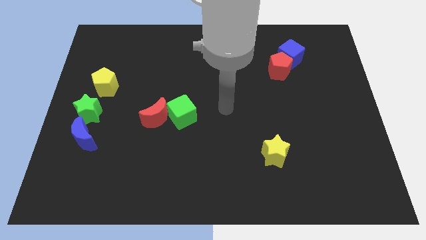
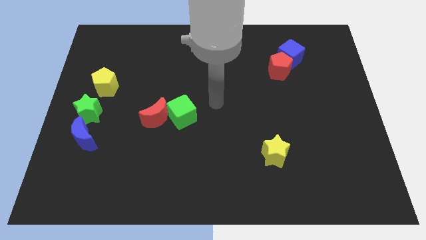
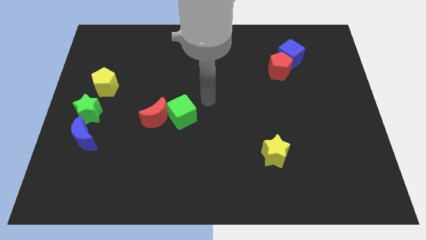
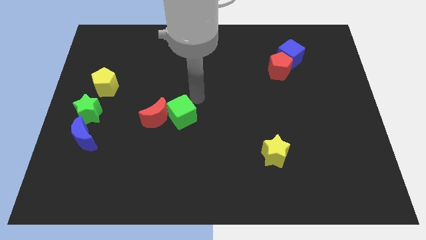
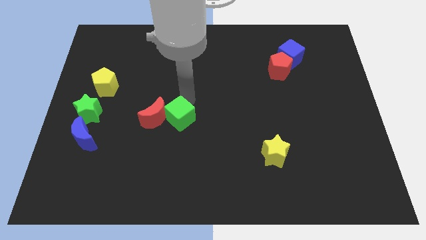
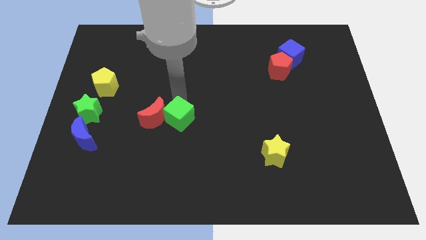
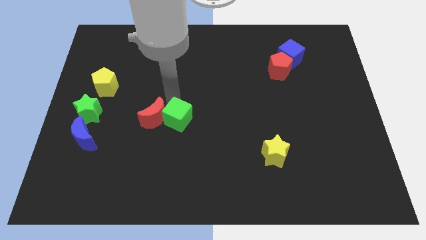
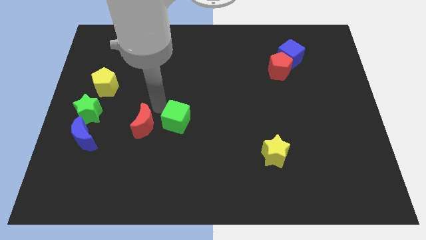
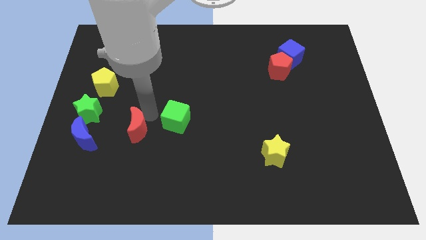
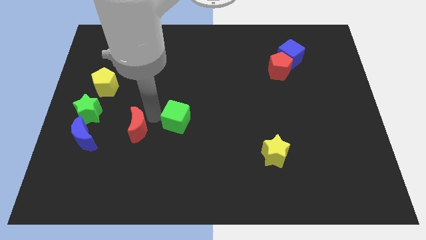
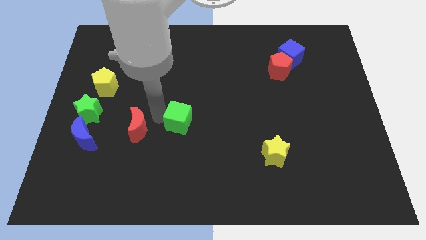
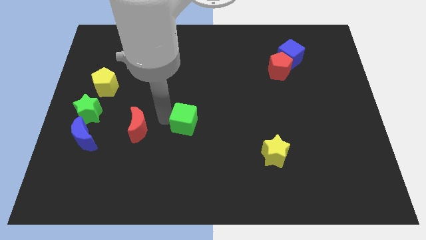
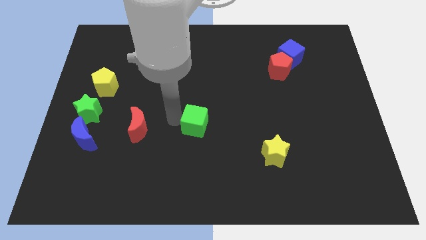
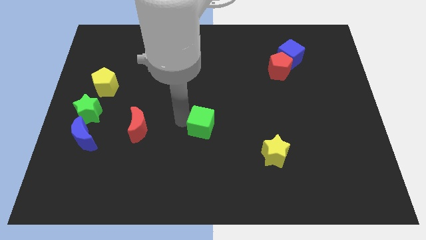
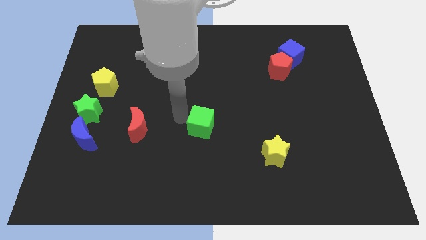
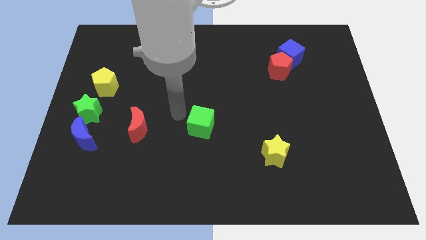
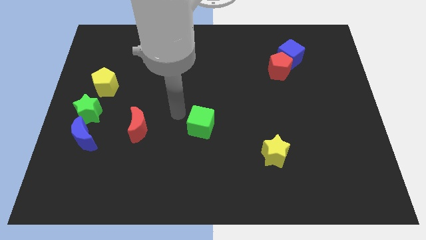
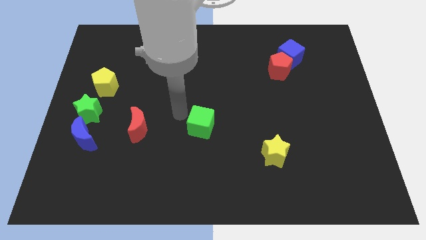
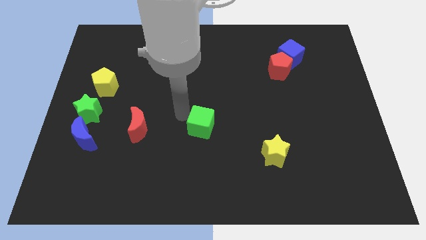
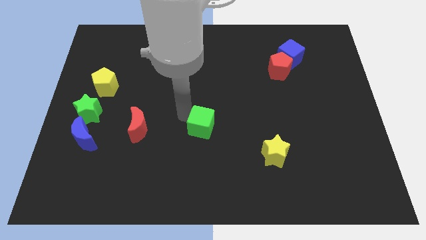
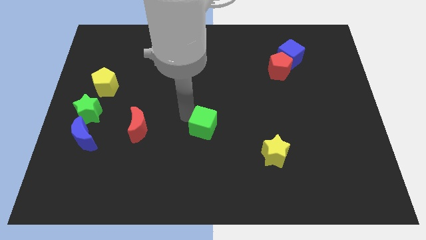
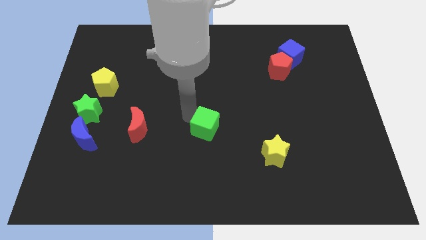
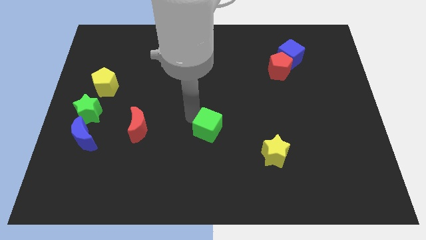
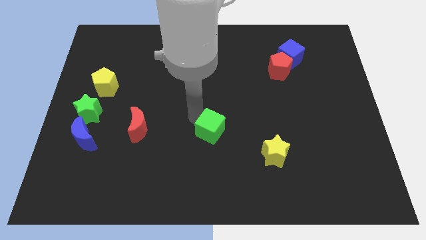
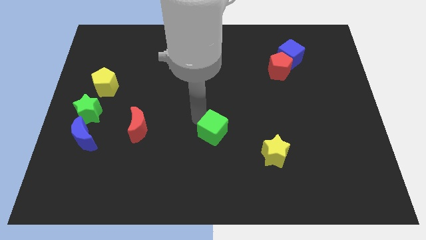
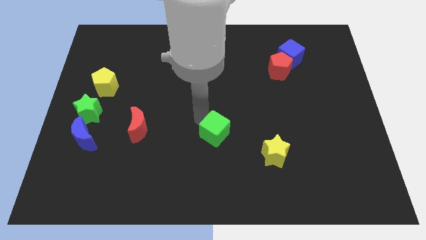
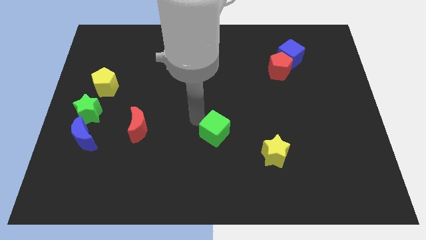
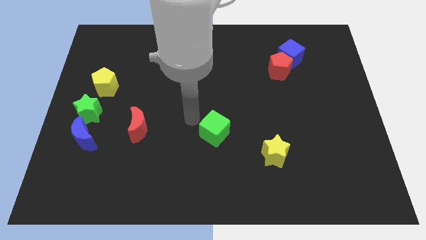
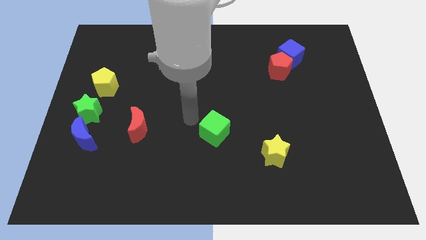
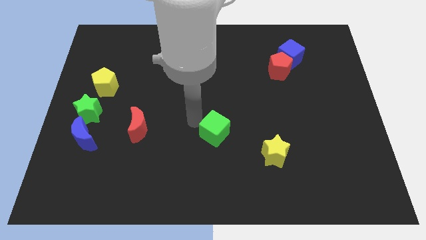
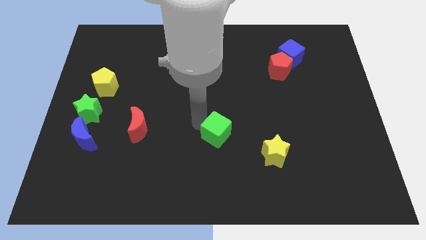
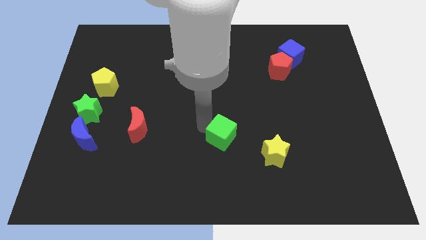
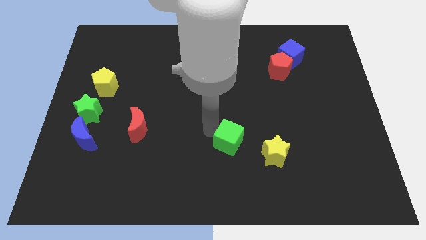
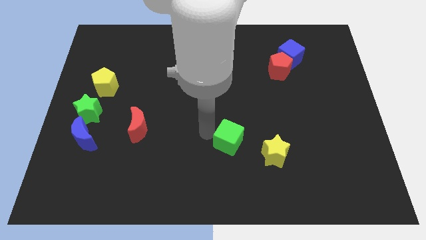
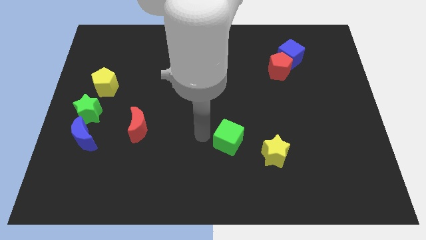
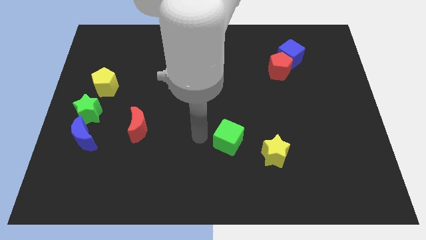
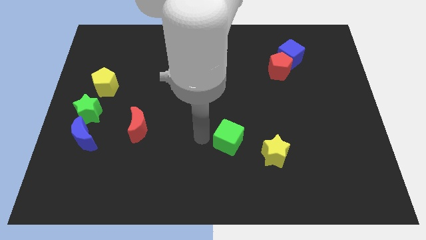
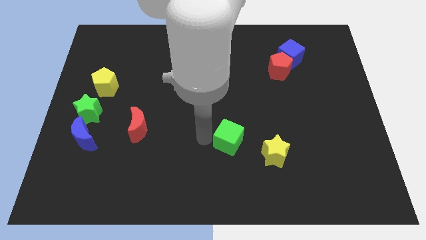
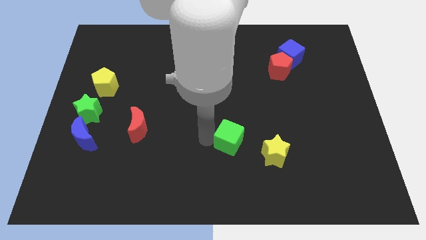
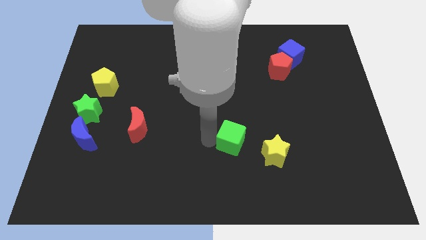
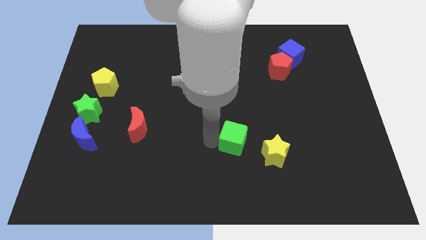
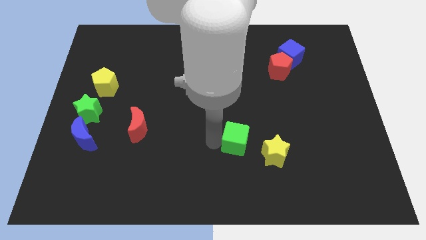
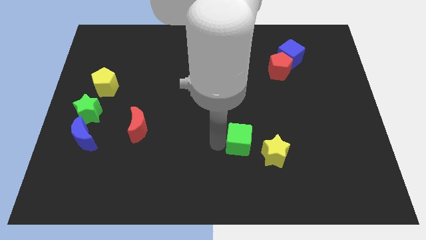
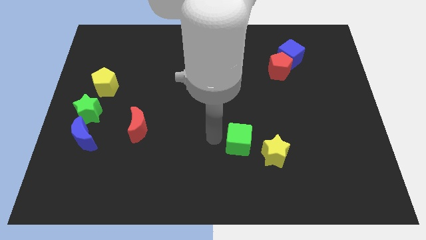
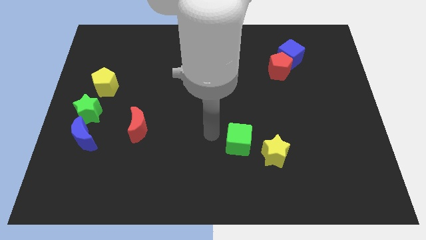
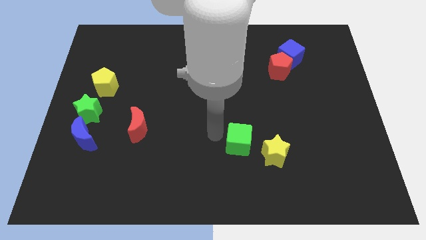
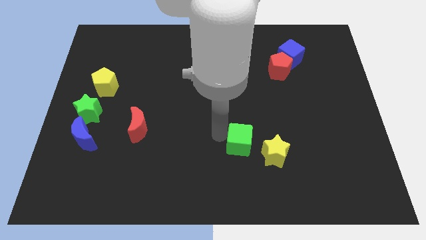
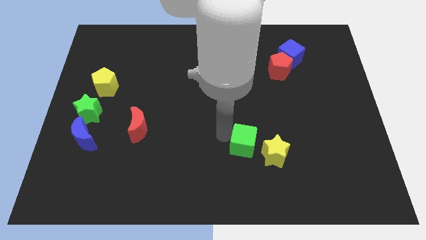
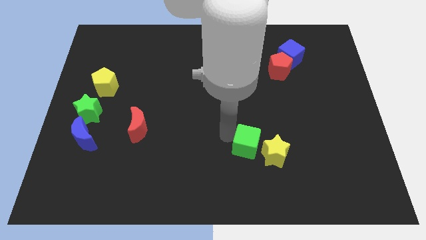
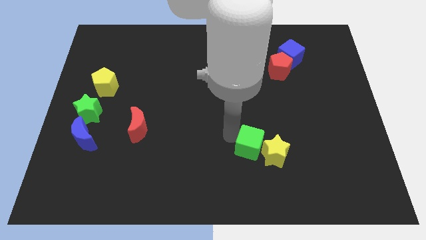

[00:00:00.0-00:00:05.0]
push the green cube close to the yellow star

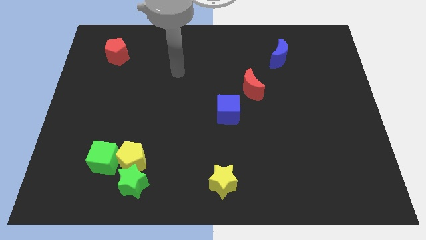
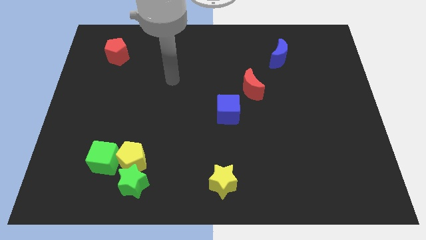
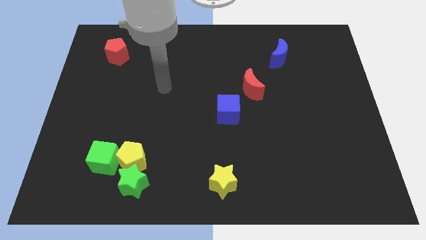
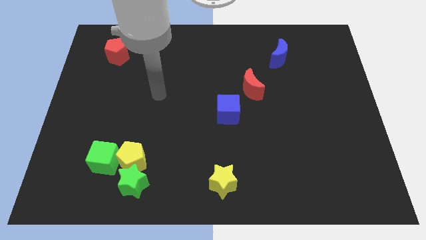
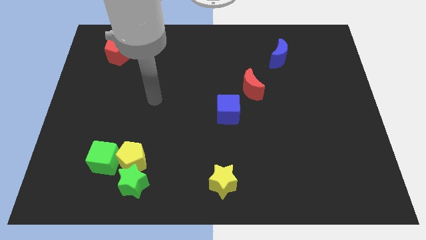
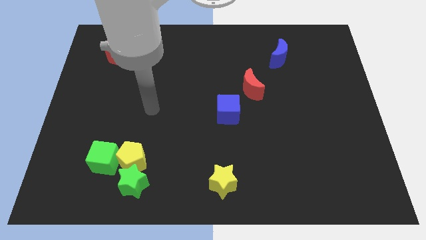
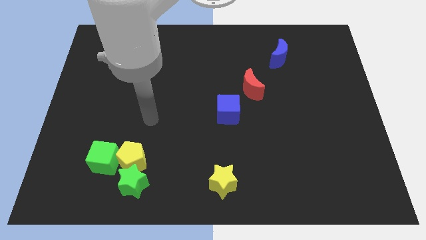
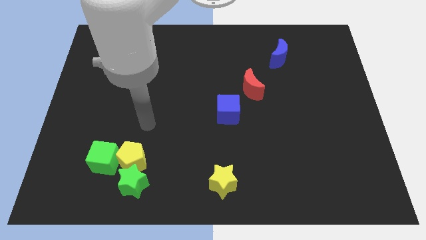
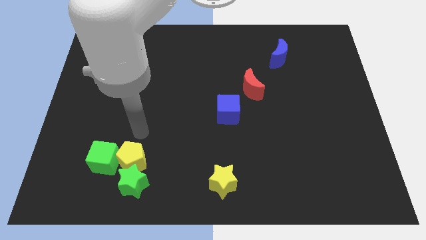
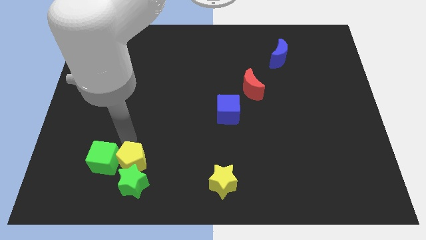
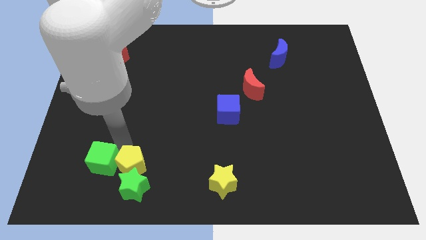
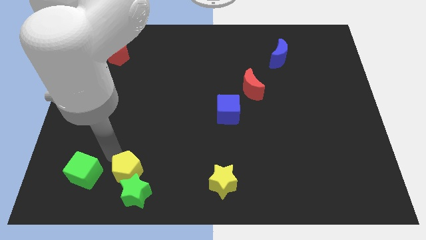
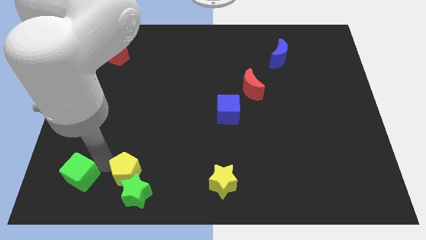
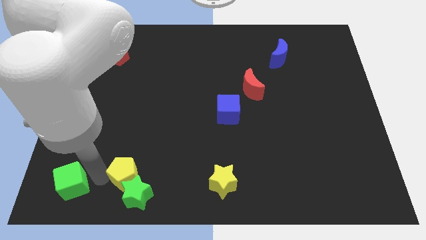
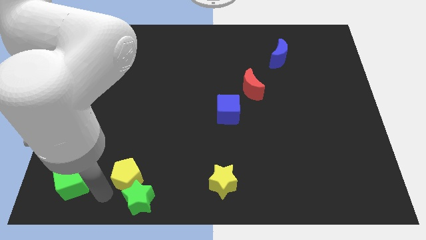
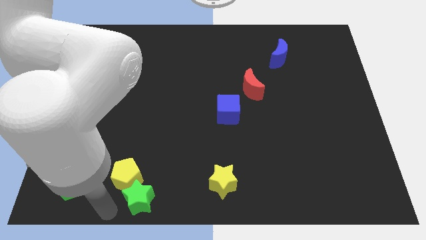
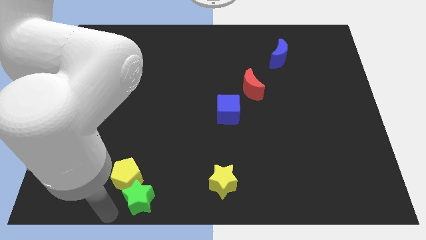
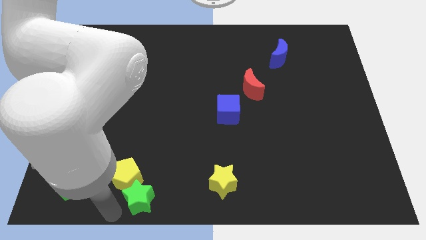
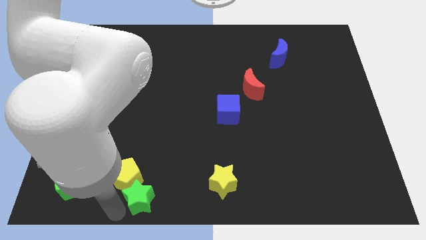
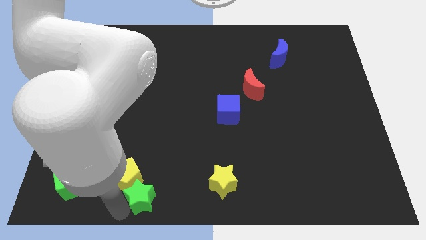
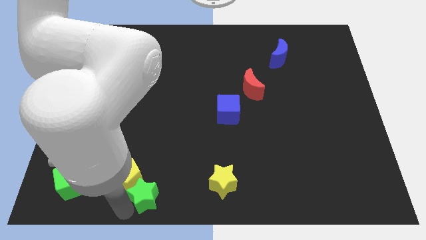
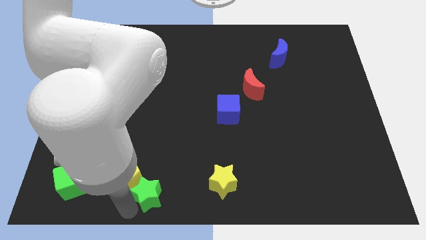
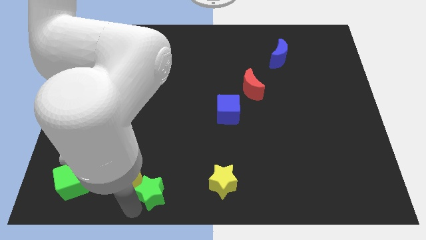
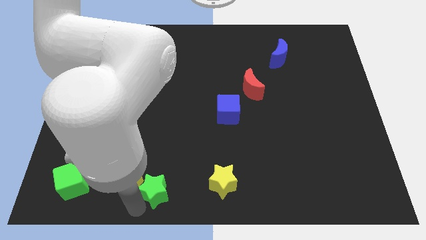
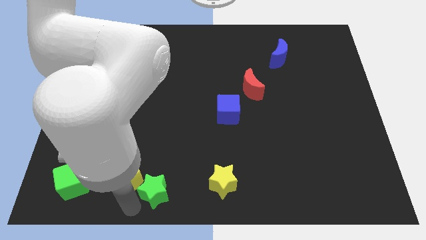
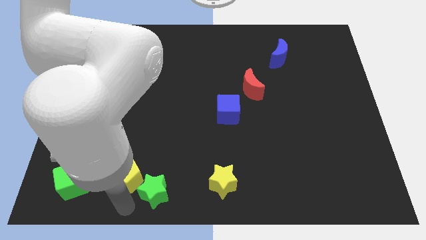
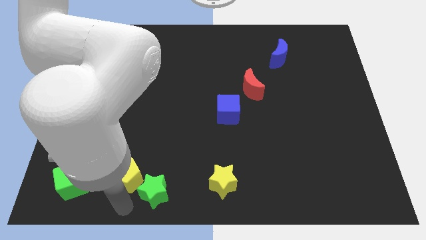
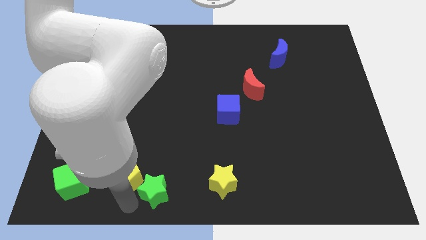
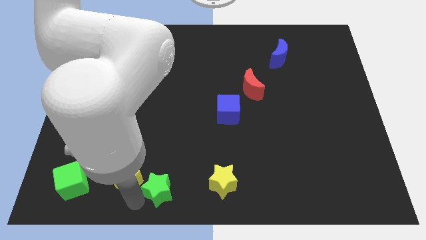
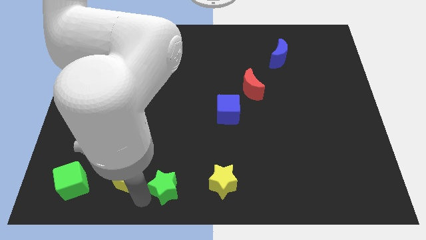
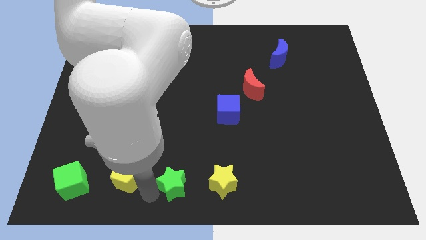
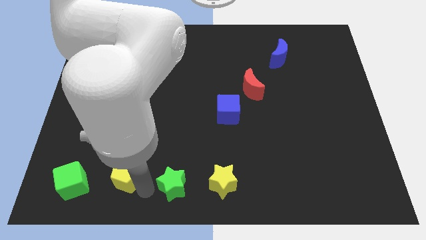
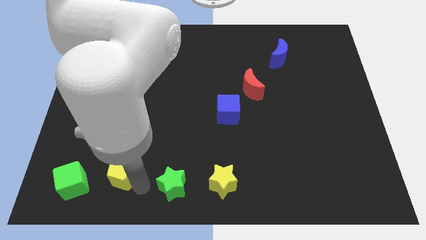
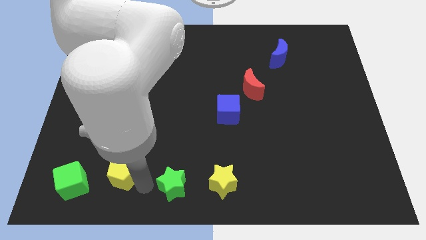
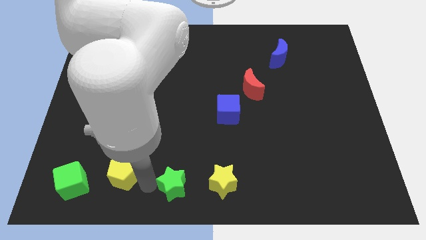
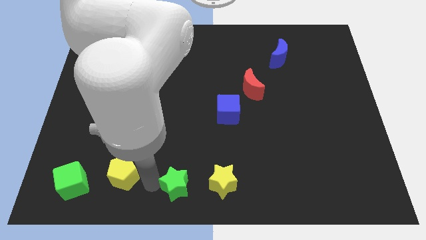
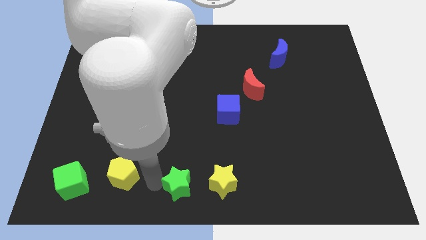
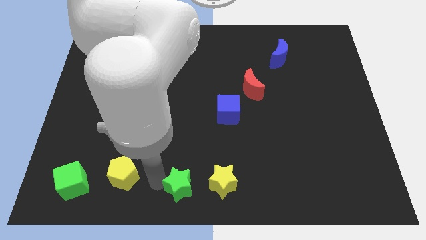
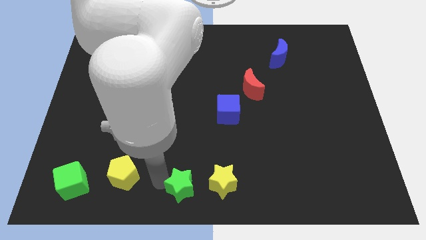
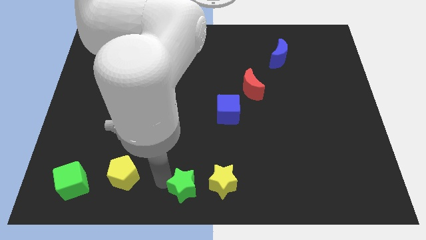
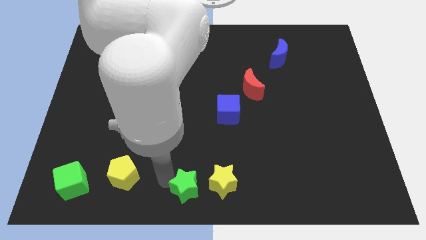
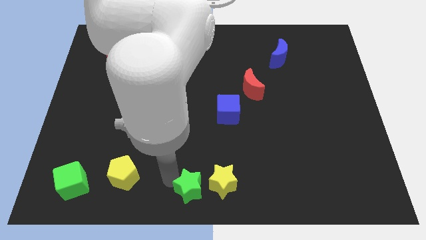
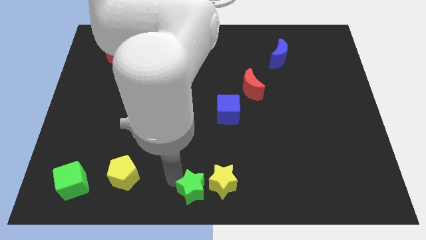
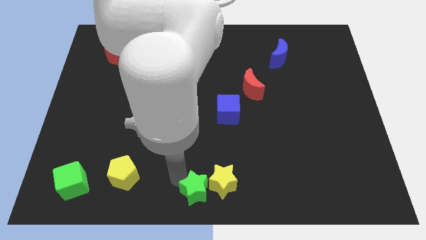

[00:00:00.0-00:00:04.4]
move the green star to the yellow star
